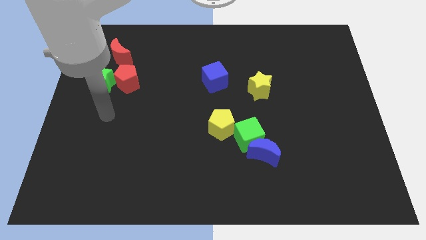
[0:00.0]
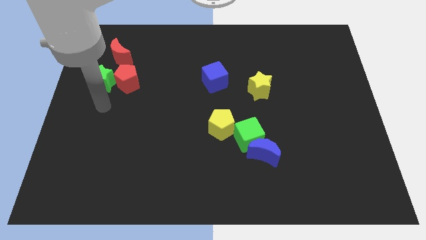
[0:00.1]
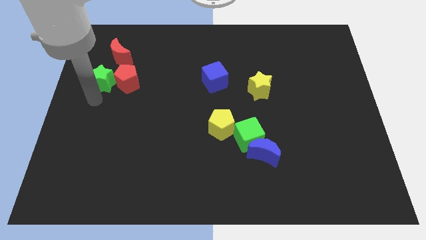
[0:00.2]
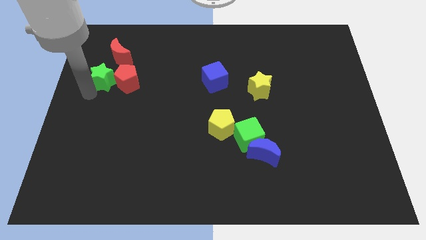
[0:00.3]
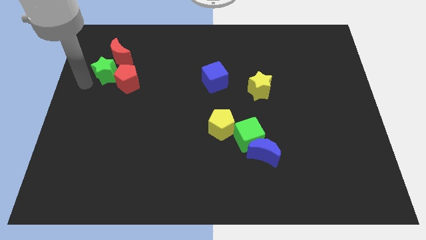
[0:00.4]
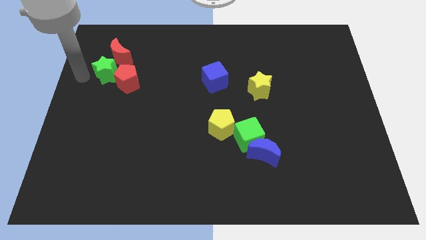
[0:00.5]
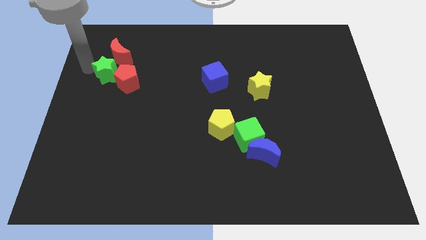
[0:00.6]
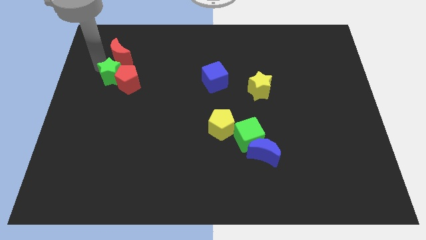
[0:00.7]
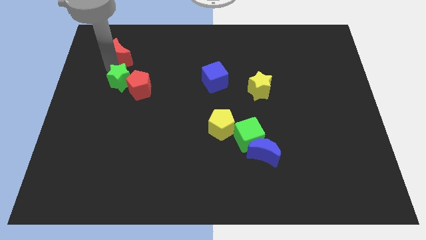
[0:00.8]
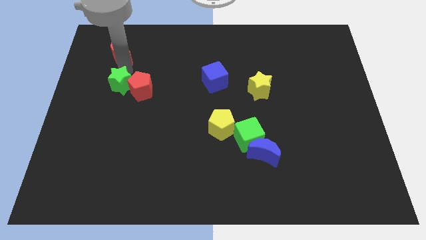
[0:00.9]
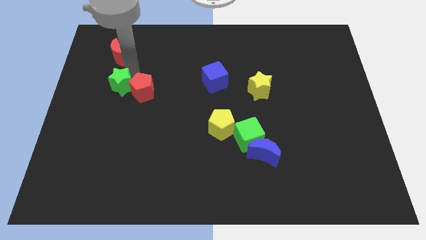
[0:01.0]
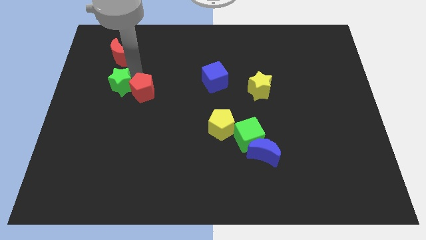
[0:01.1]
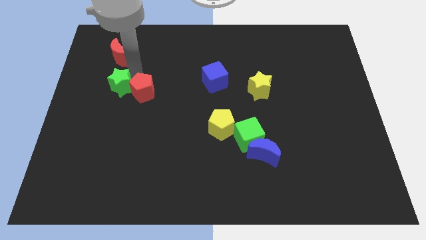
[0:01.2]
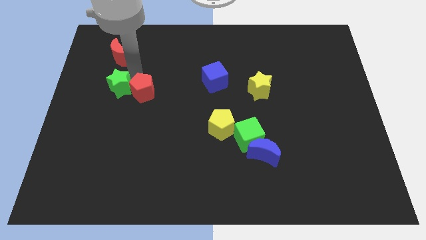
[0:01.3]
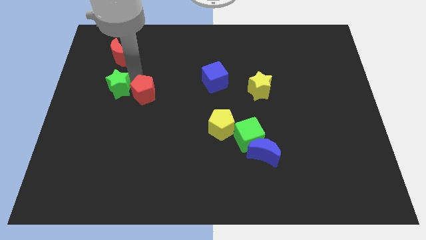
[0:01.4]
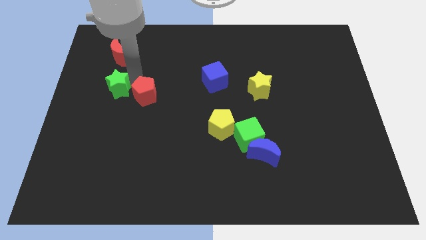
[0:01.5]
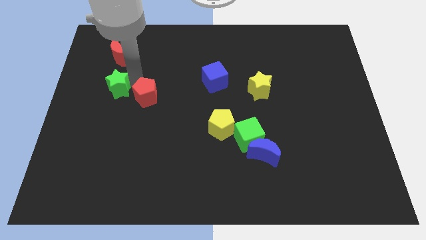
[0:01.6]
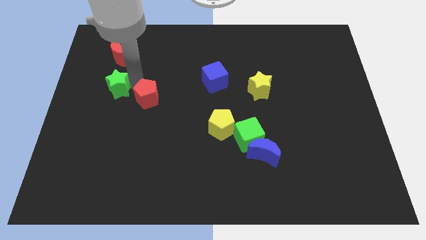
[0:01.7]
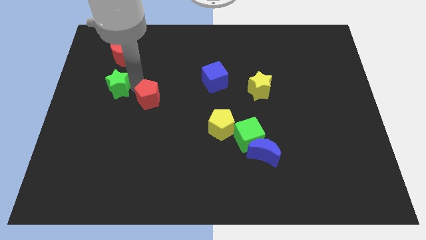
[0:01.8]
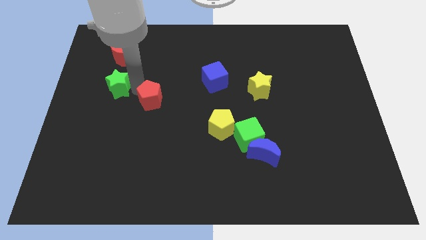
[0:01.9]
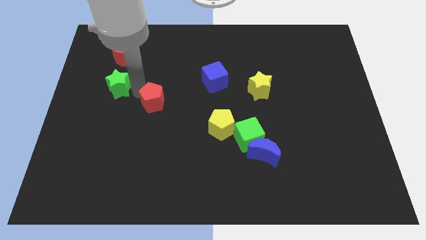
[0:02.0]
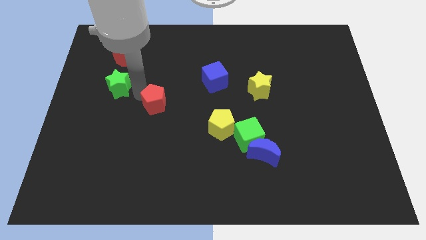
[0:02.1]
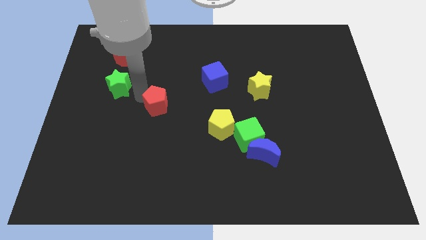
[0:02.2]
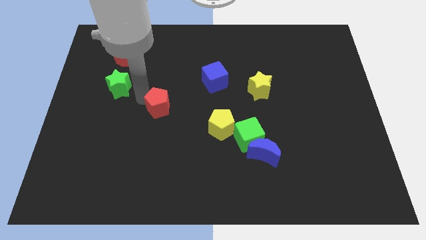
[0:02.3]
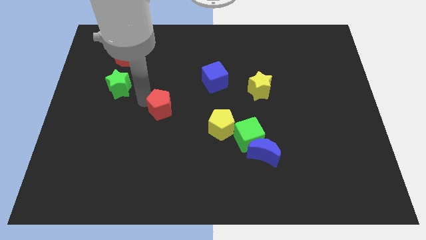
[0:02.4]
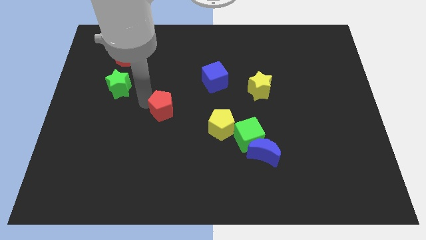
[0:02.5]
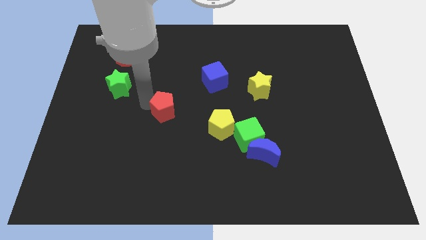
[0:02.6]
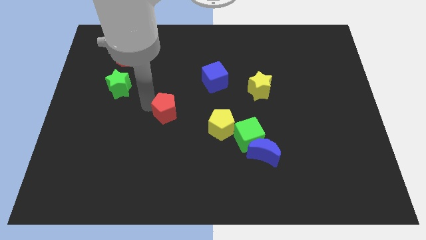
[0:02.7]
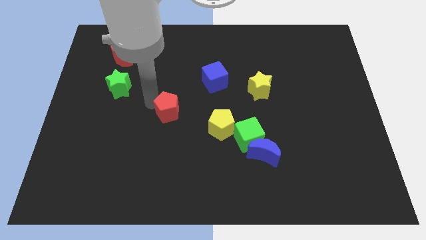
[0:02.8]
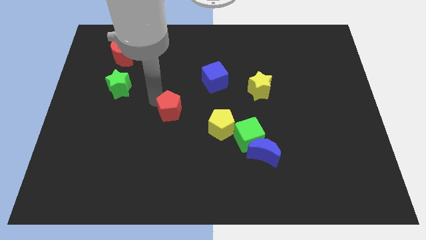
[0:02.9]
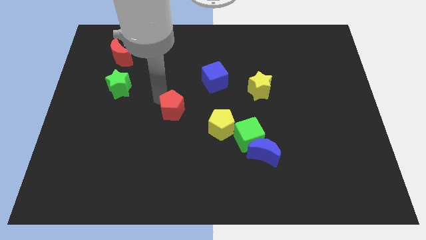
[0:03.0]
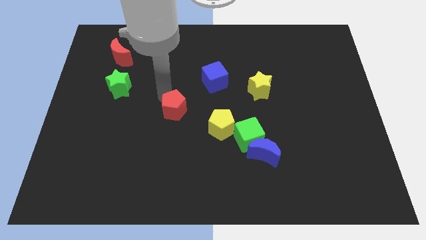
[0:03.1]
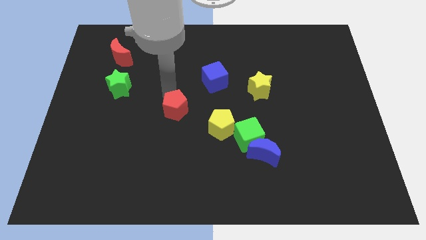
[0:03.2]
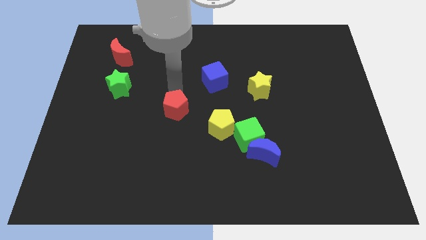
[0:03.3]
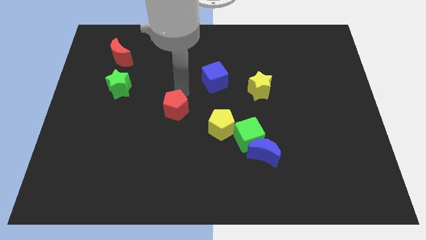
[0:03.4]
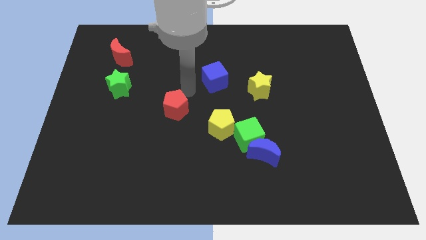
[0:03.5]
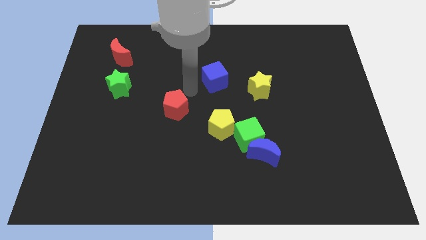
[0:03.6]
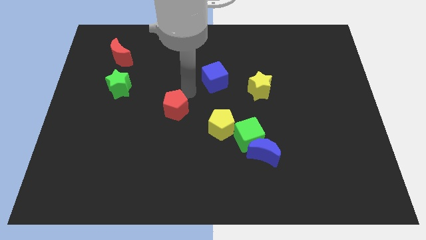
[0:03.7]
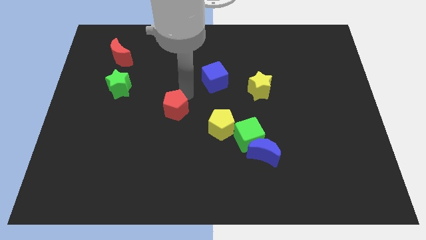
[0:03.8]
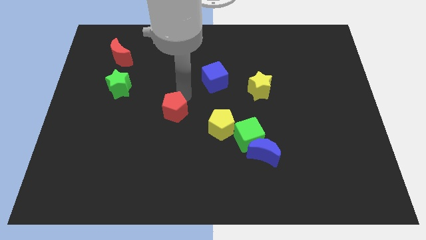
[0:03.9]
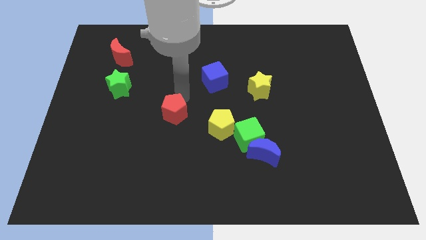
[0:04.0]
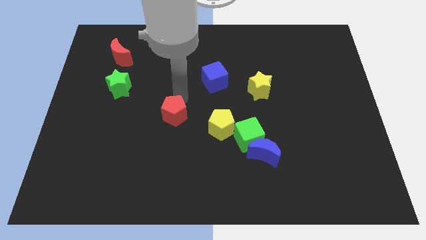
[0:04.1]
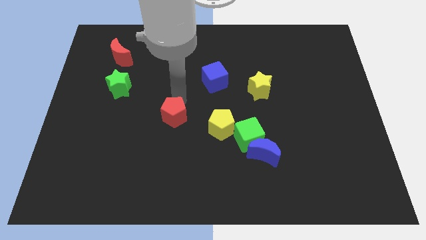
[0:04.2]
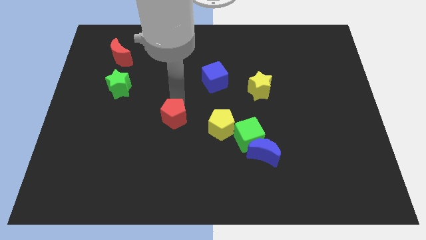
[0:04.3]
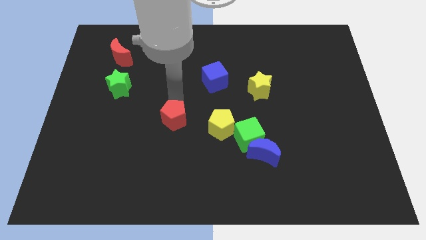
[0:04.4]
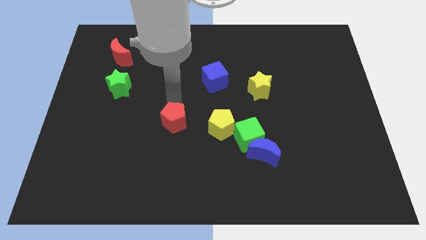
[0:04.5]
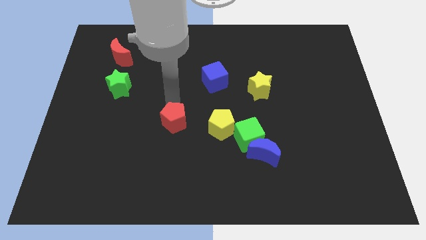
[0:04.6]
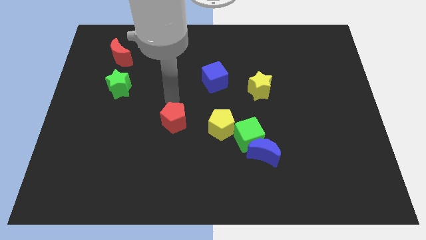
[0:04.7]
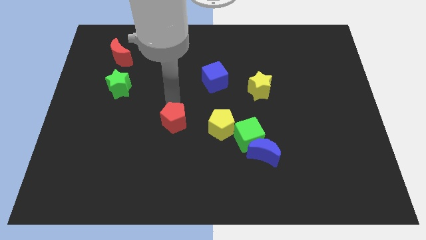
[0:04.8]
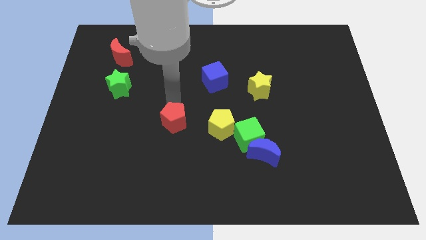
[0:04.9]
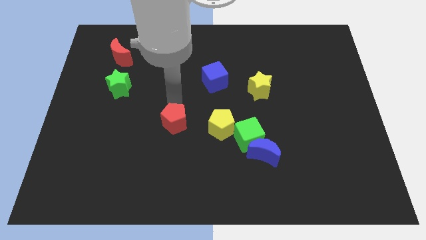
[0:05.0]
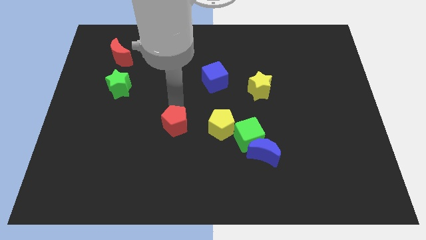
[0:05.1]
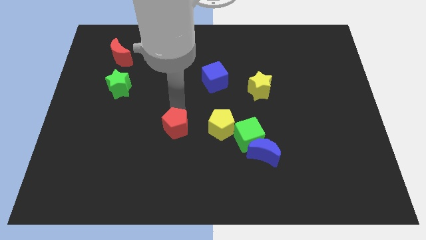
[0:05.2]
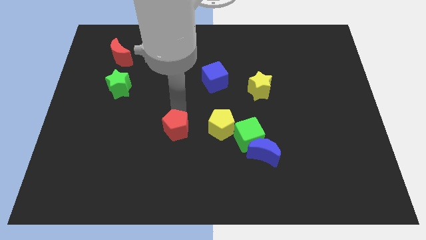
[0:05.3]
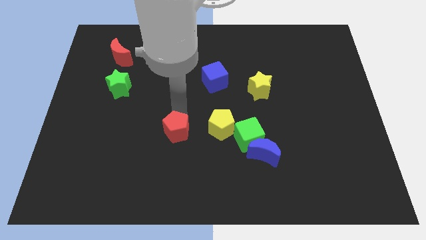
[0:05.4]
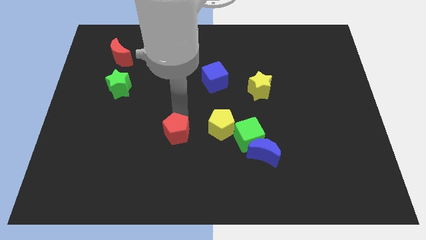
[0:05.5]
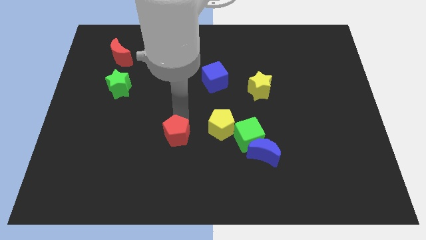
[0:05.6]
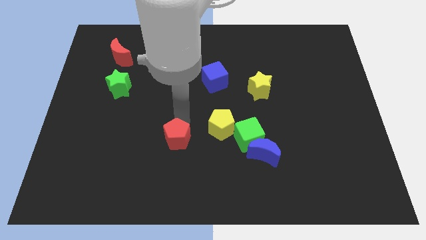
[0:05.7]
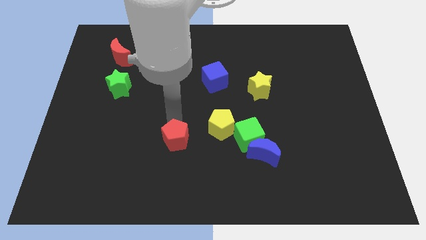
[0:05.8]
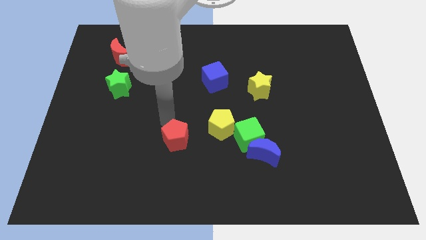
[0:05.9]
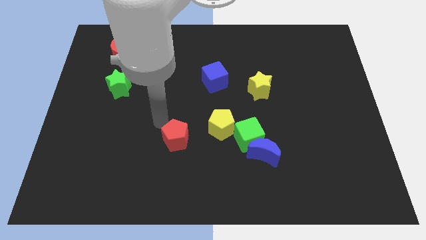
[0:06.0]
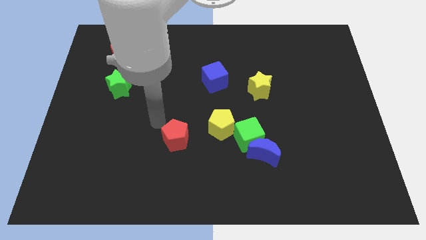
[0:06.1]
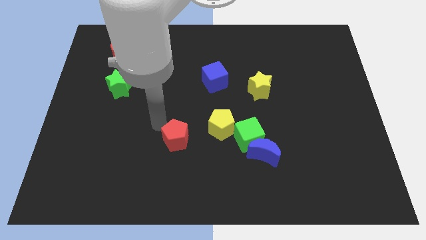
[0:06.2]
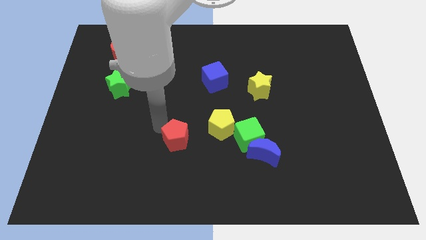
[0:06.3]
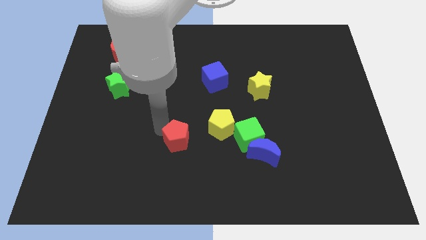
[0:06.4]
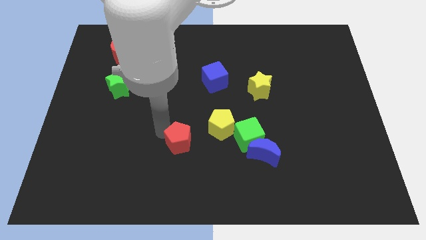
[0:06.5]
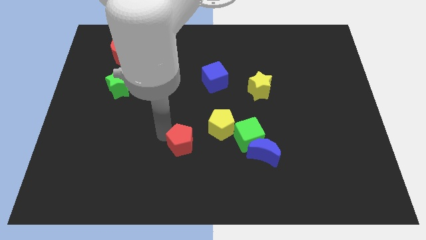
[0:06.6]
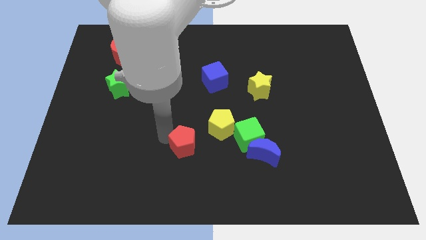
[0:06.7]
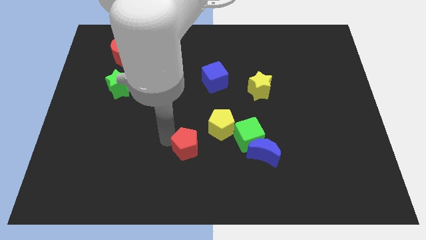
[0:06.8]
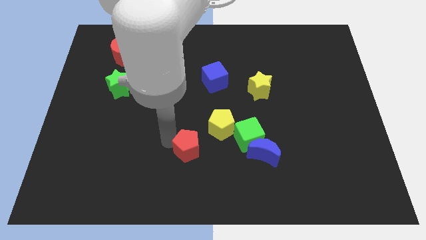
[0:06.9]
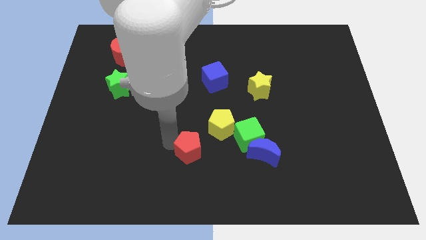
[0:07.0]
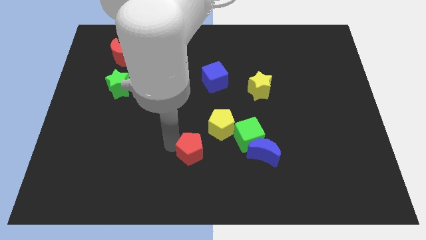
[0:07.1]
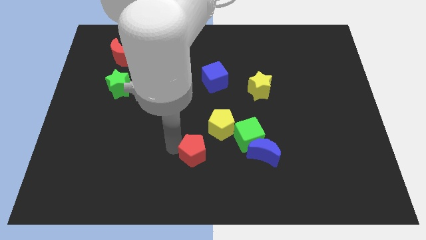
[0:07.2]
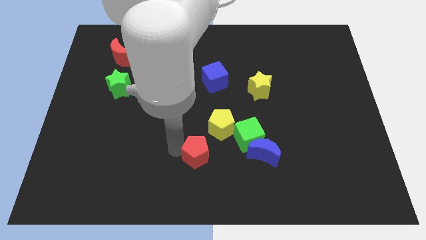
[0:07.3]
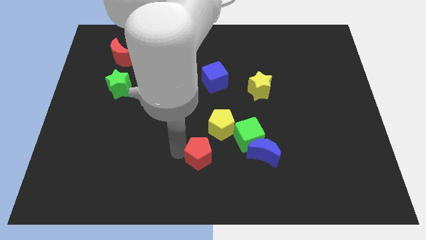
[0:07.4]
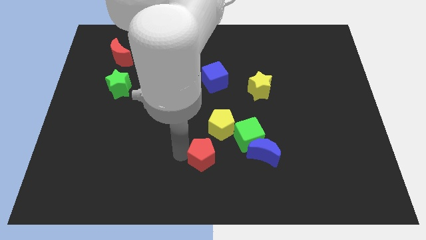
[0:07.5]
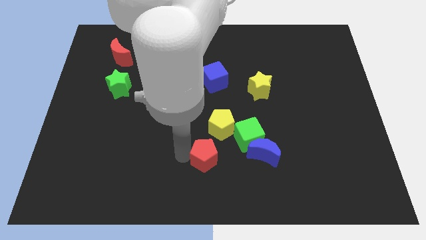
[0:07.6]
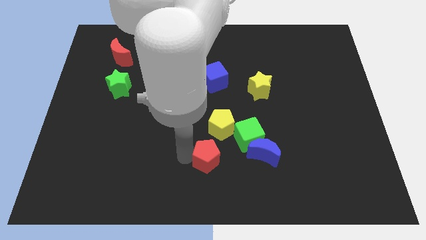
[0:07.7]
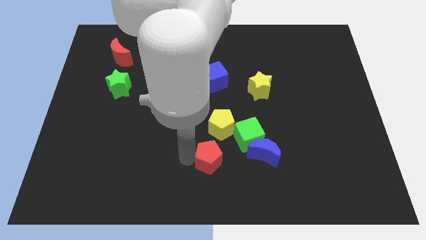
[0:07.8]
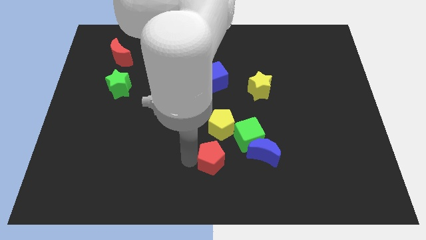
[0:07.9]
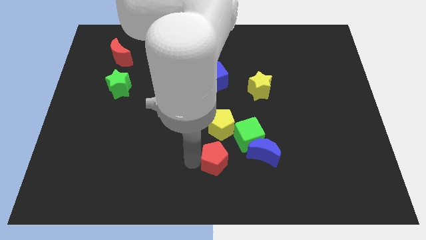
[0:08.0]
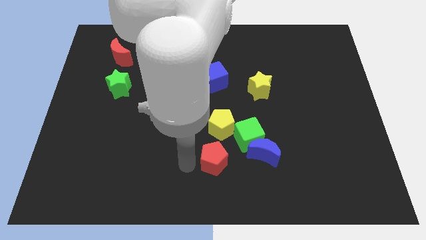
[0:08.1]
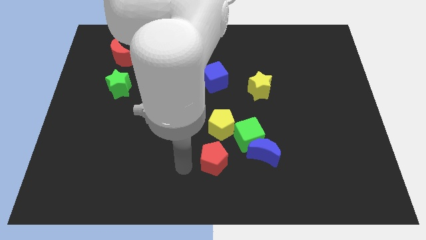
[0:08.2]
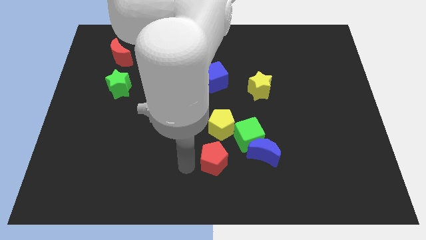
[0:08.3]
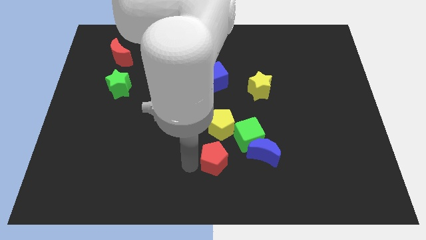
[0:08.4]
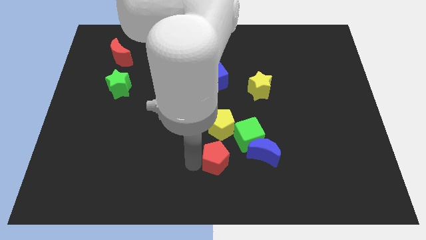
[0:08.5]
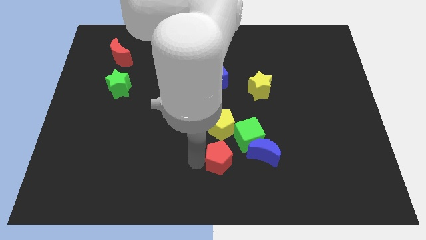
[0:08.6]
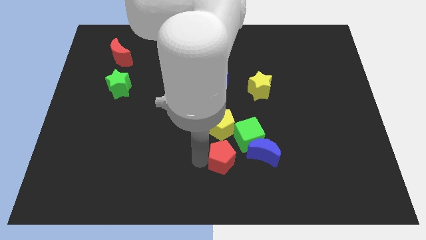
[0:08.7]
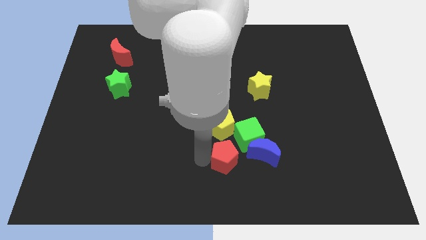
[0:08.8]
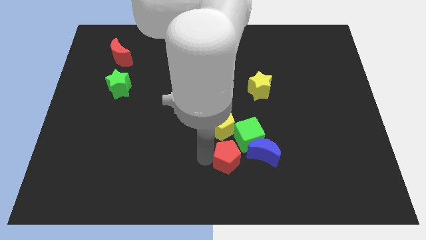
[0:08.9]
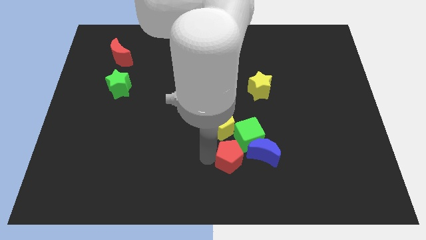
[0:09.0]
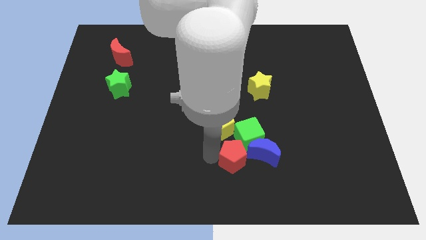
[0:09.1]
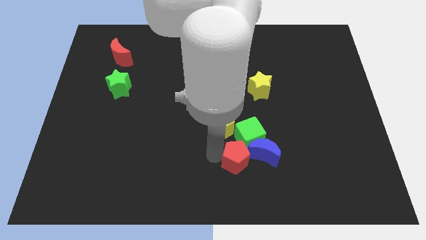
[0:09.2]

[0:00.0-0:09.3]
slide the red pentagon towards the blue moon
